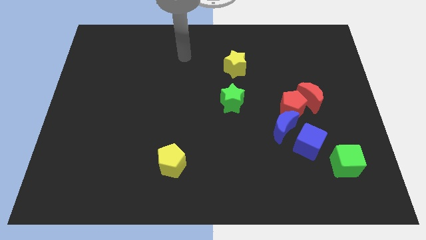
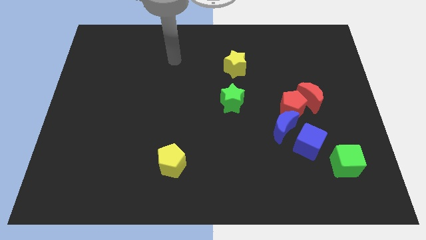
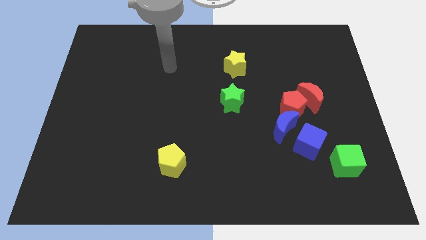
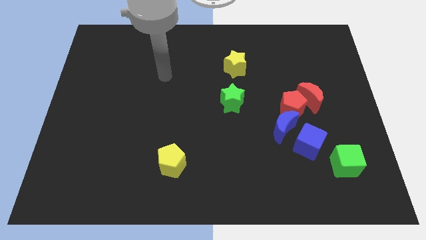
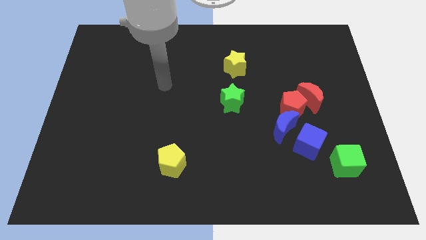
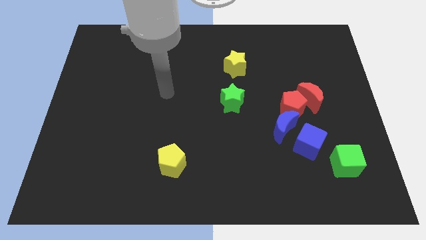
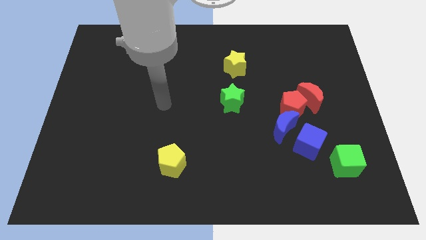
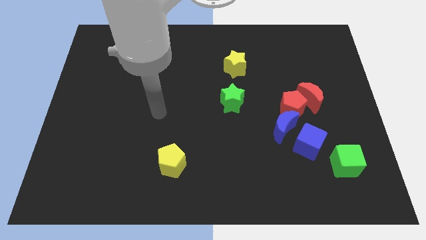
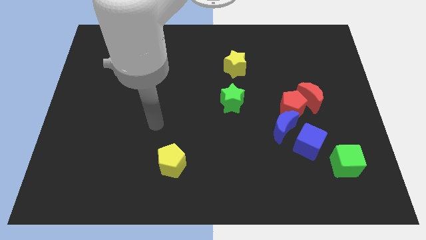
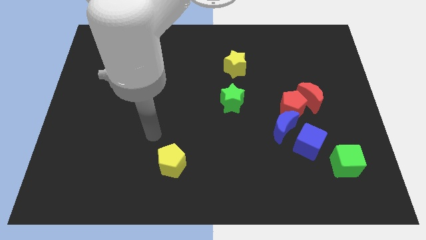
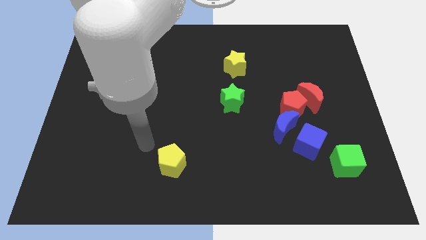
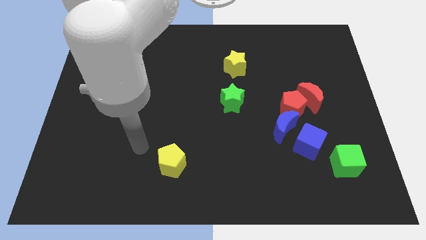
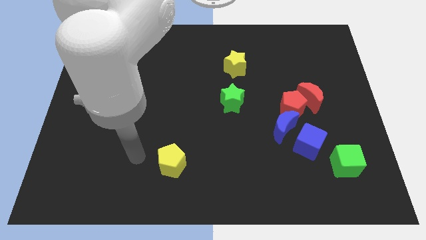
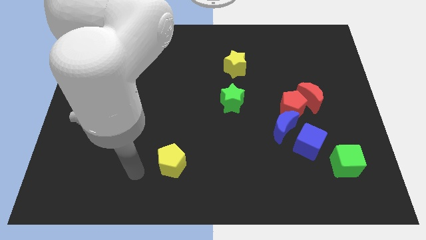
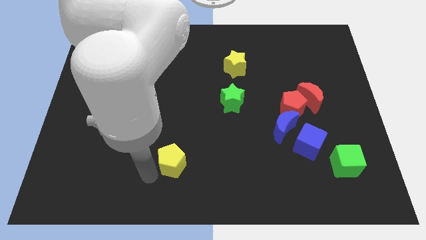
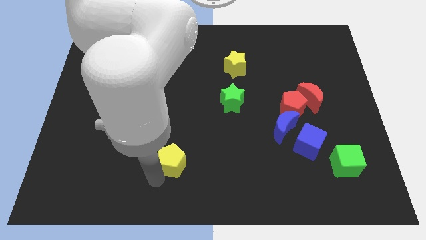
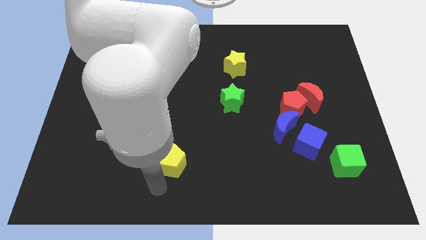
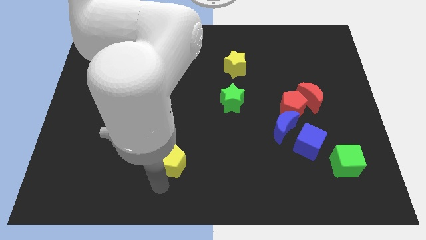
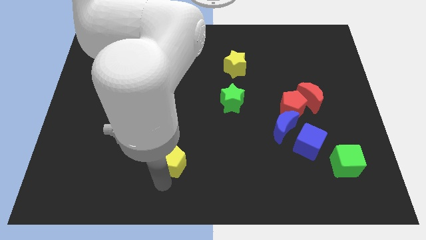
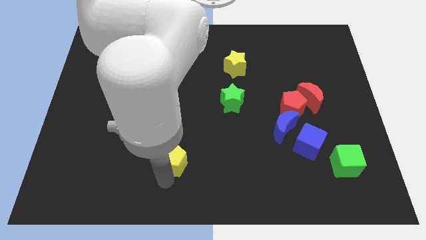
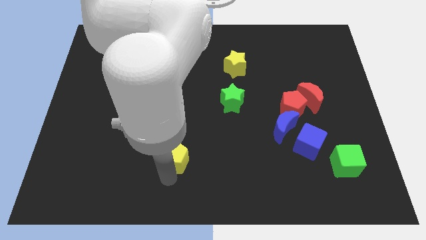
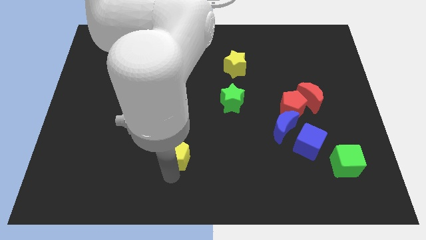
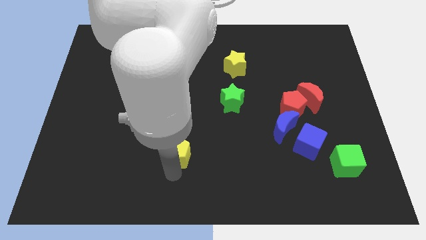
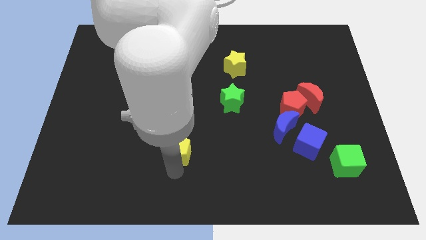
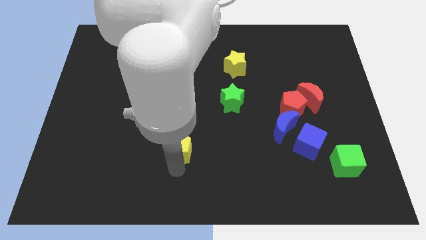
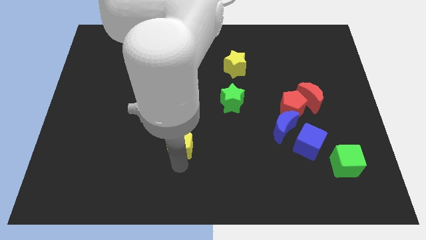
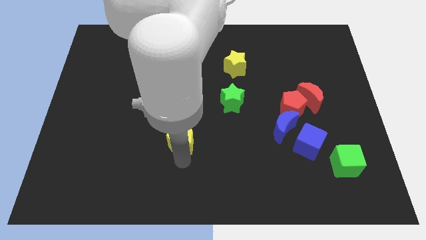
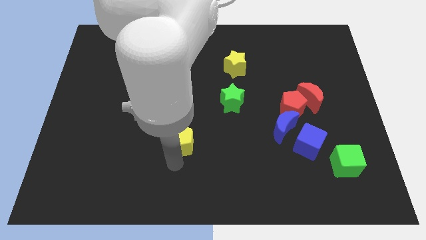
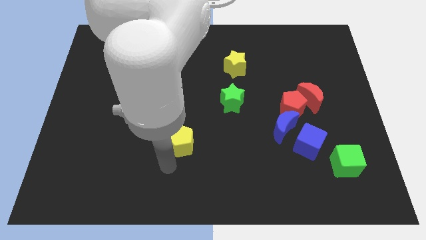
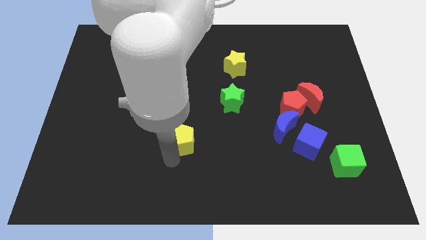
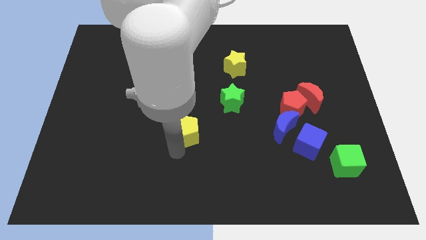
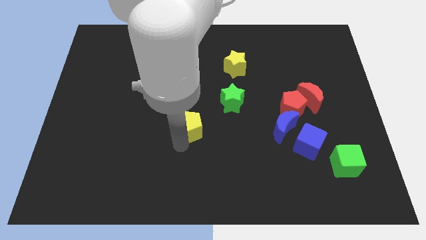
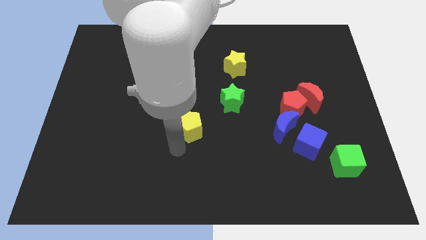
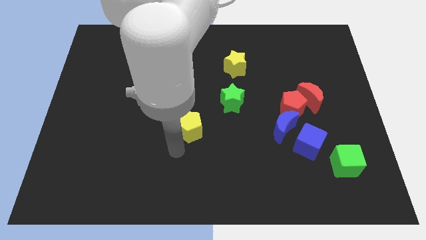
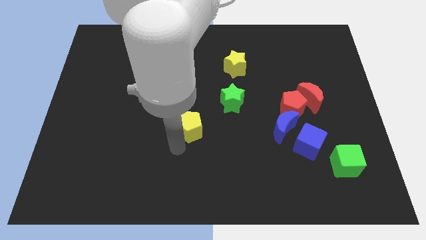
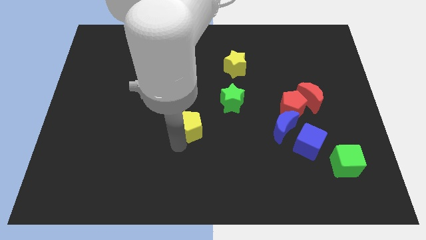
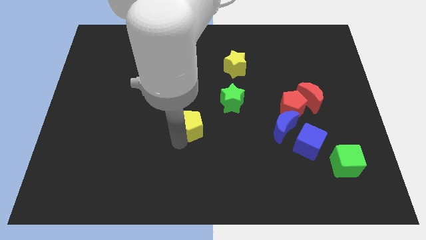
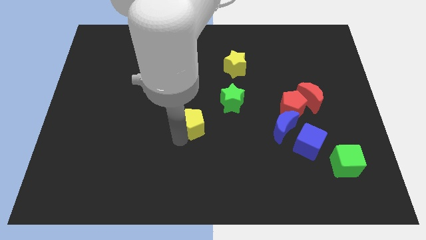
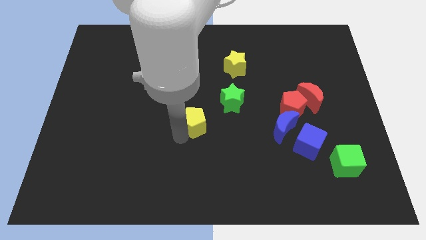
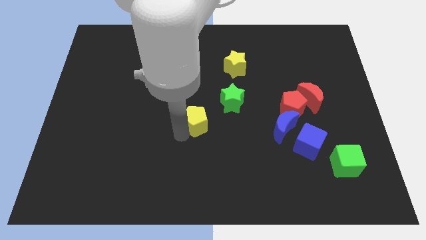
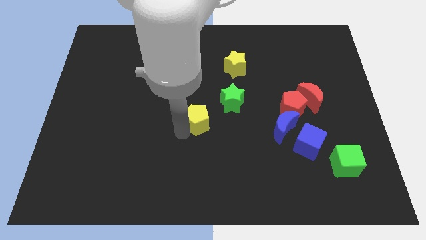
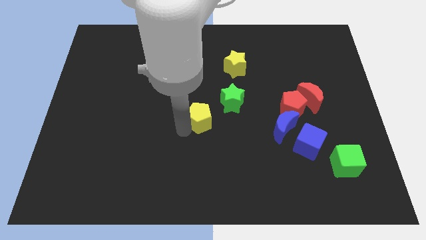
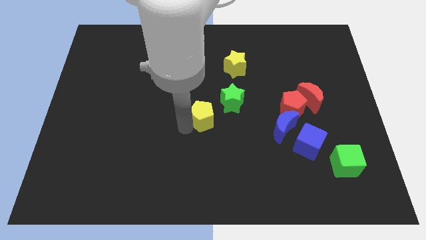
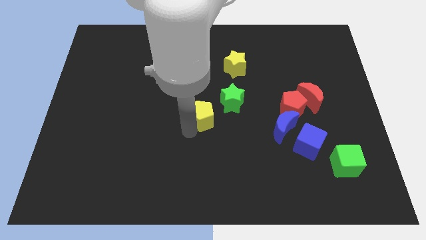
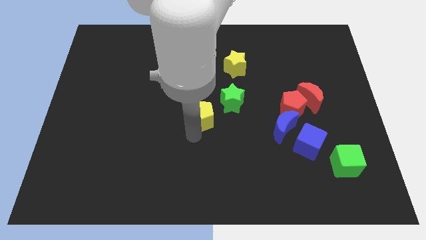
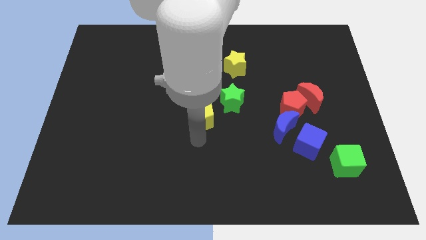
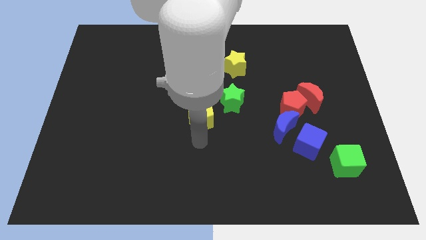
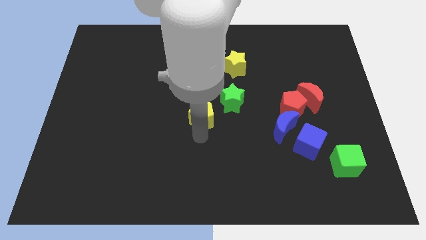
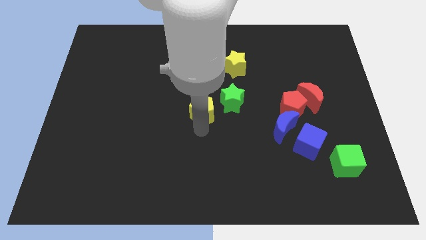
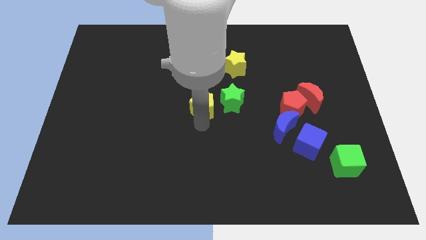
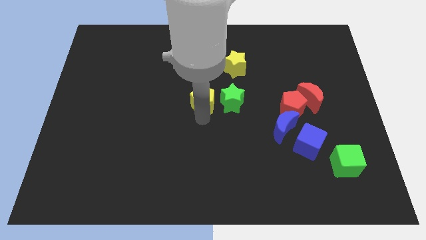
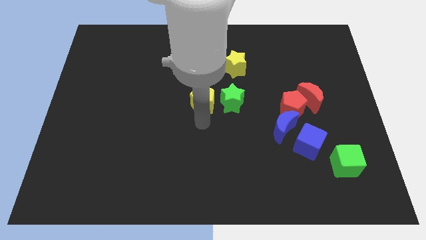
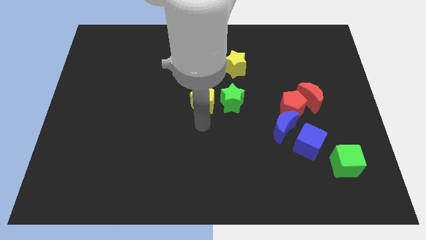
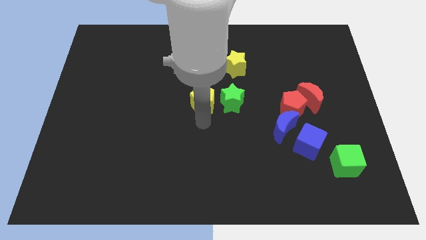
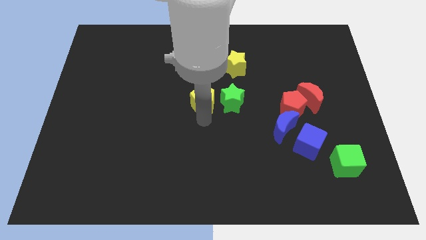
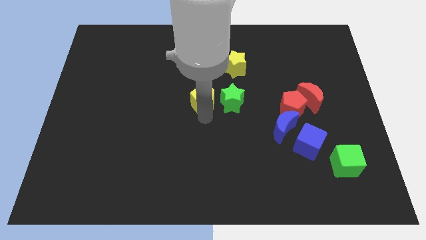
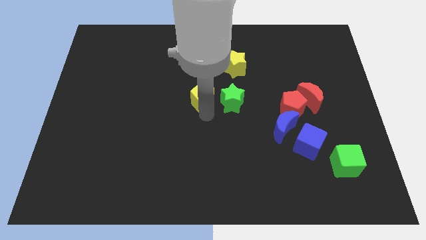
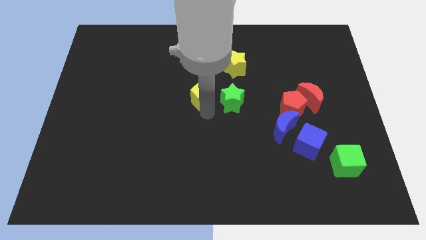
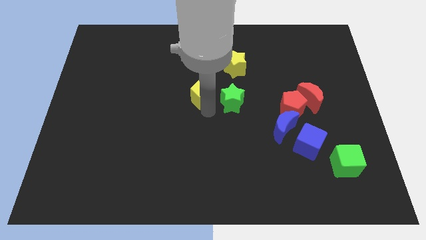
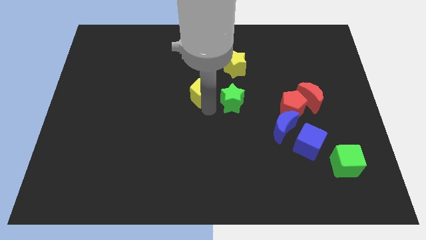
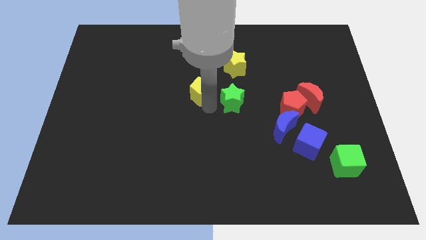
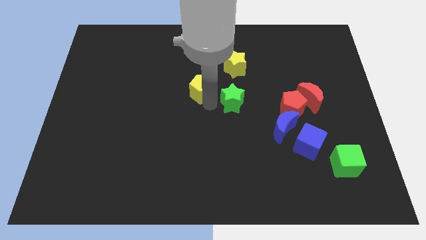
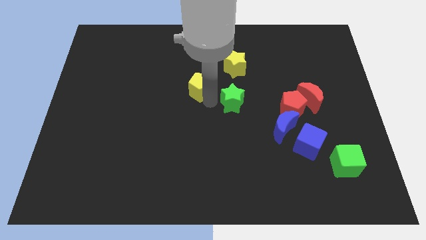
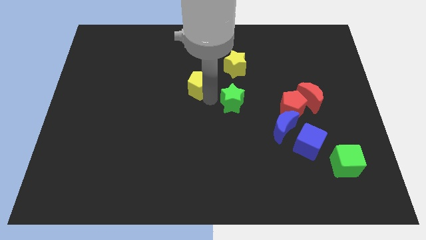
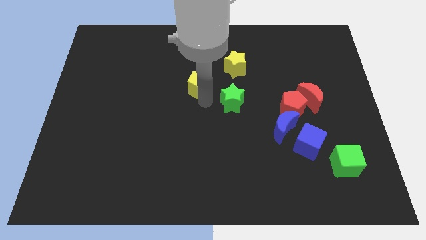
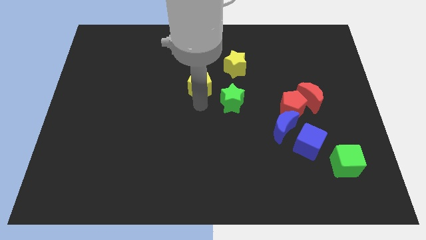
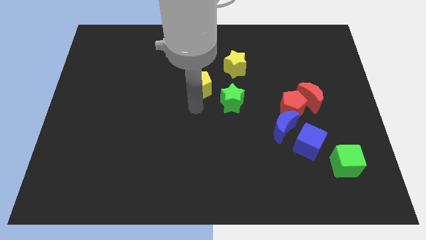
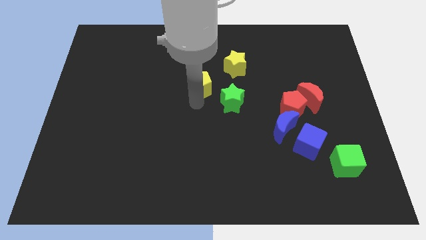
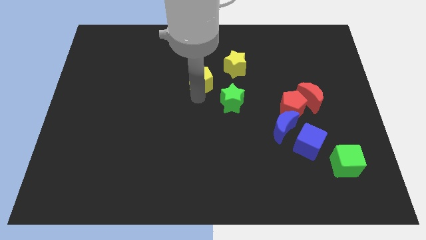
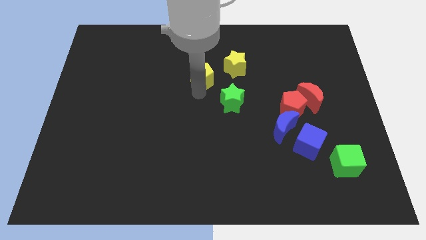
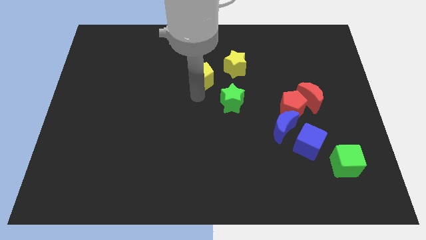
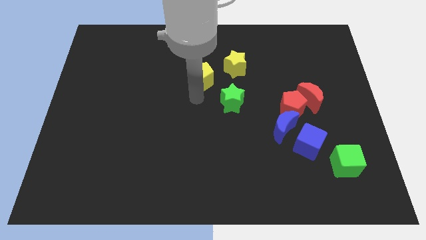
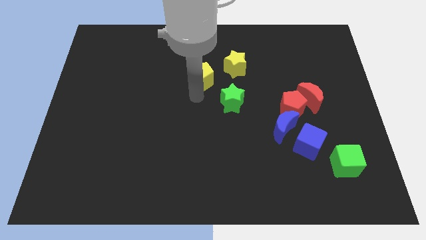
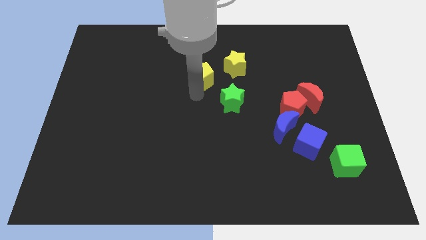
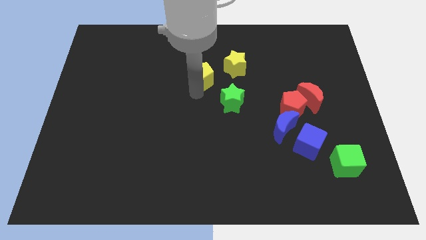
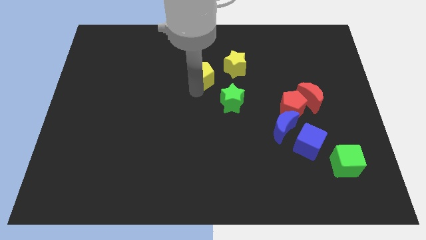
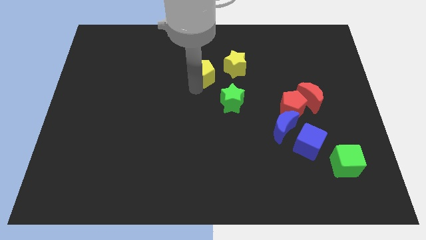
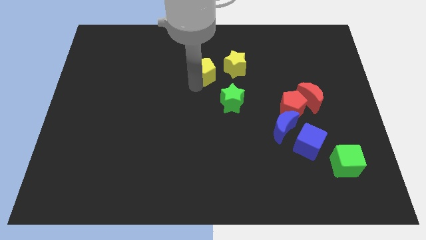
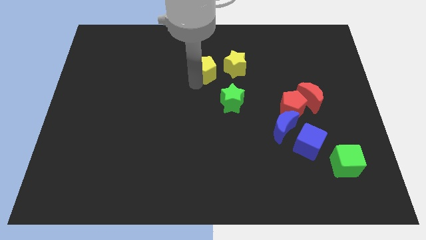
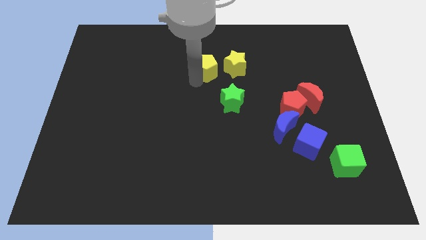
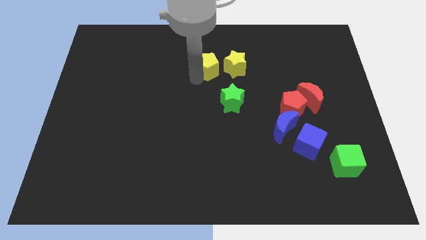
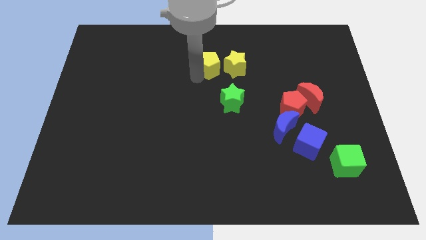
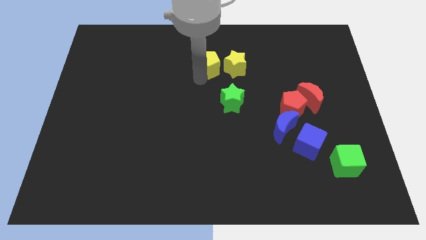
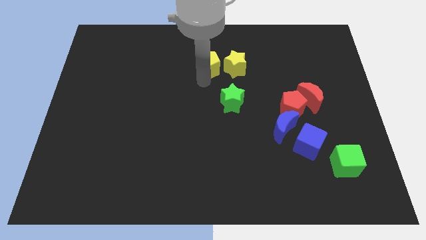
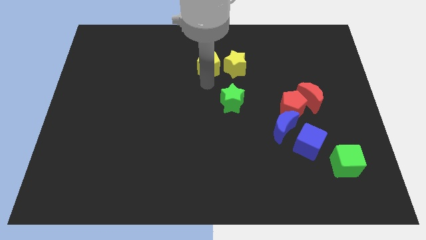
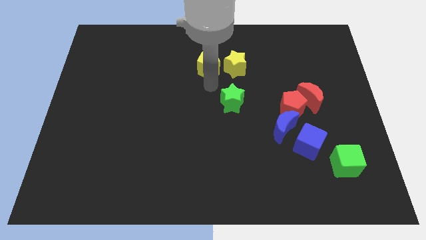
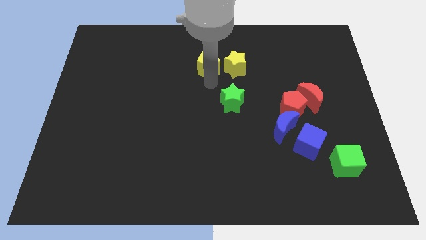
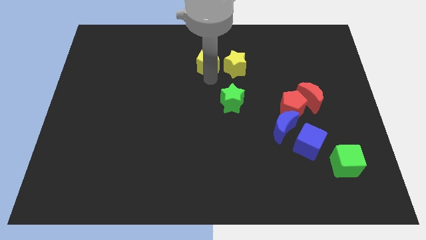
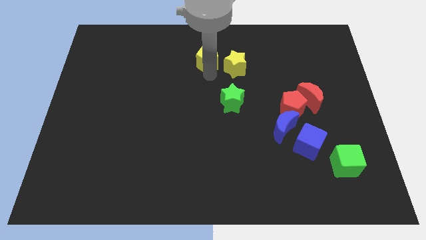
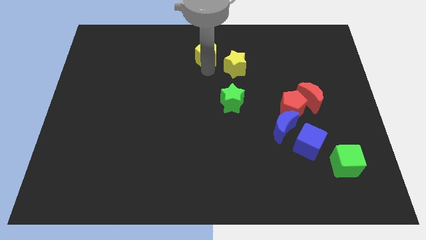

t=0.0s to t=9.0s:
slide the yellow pentagon to the top side
